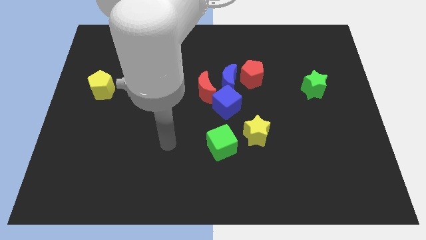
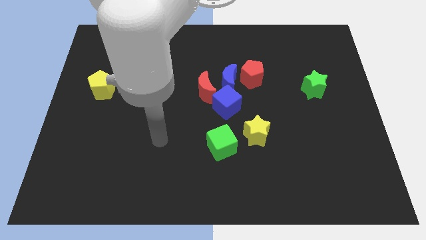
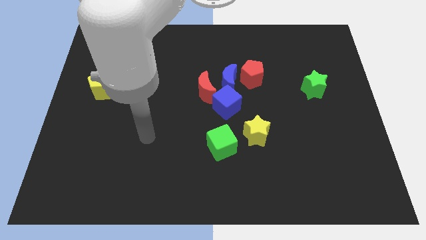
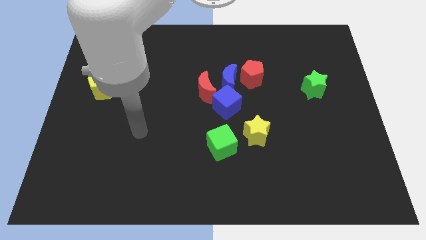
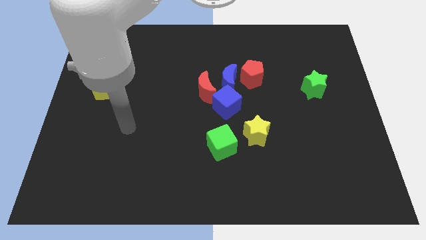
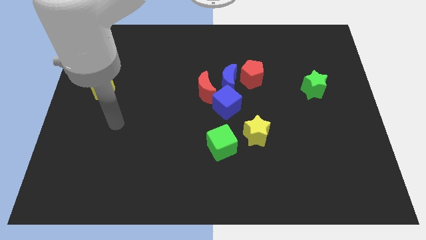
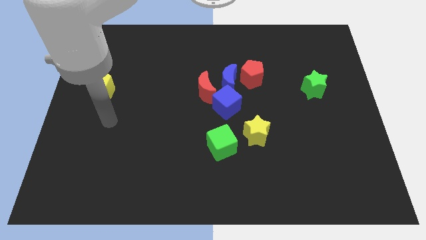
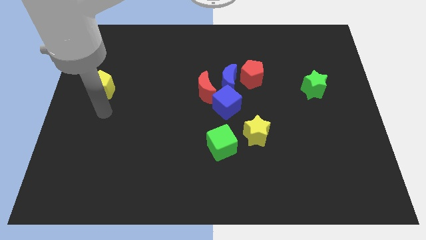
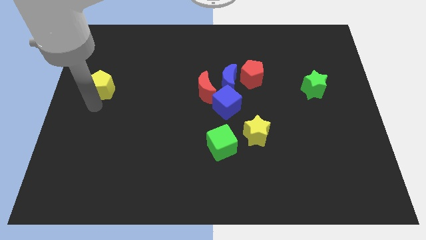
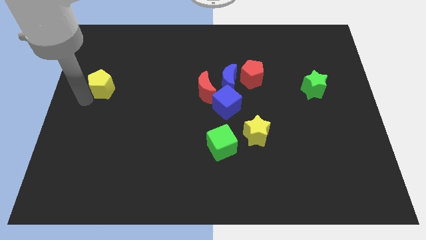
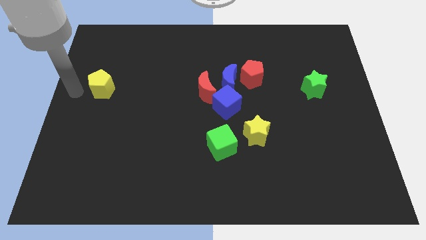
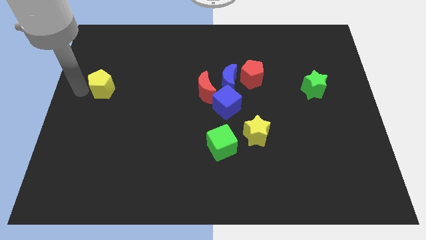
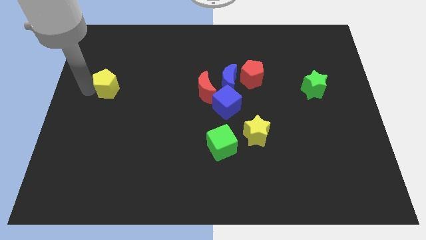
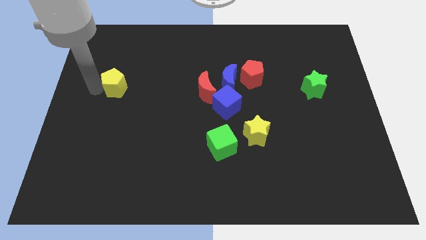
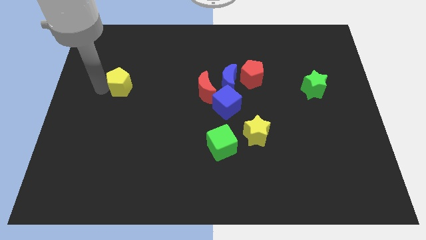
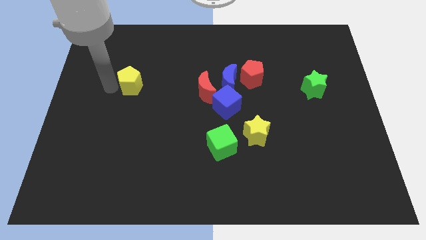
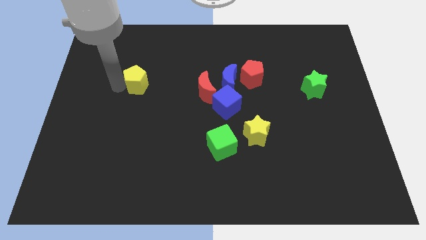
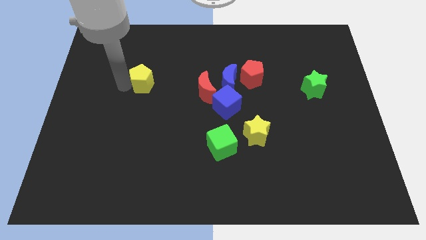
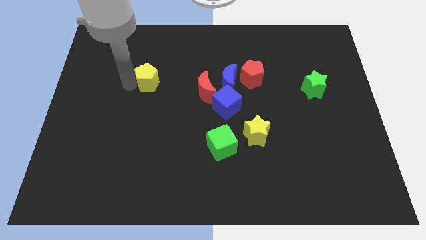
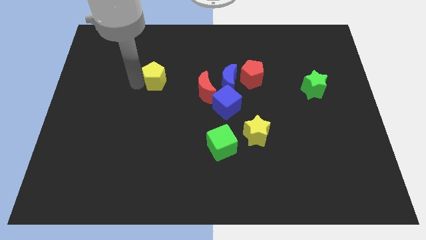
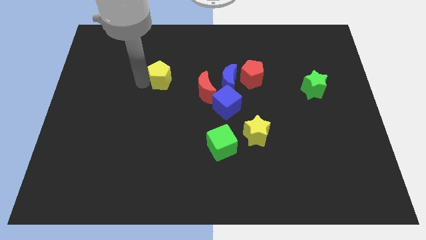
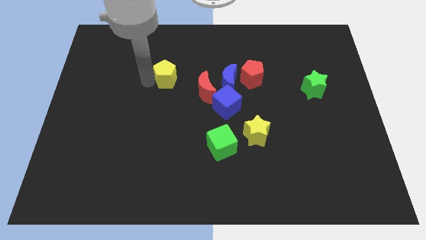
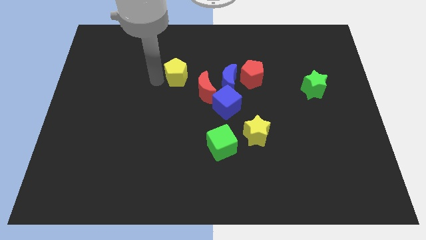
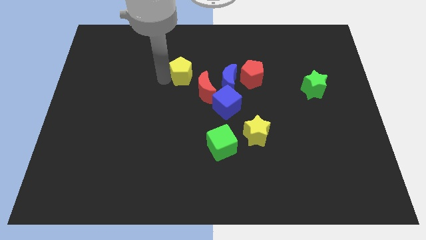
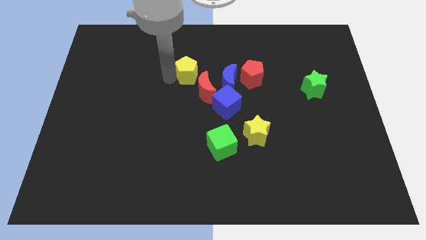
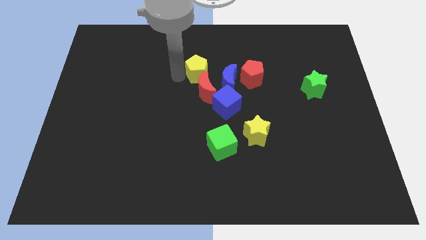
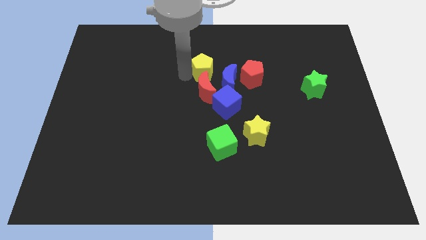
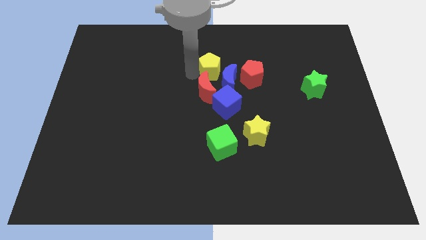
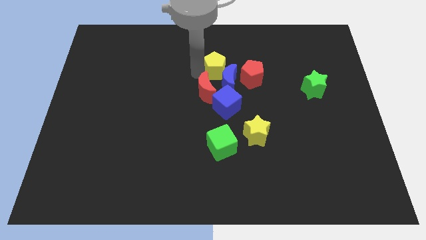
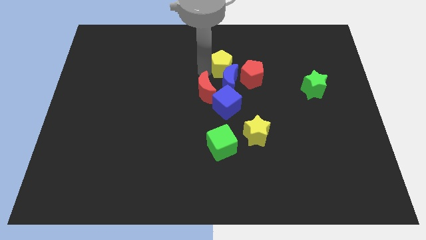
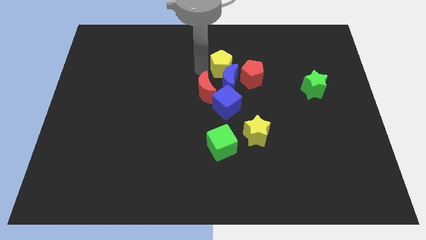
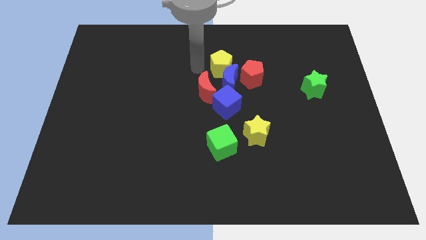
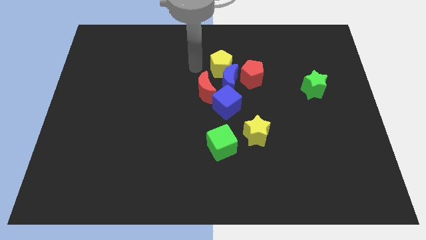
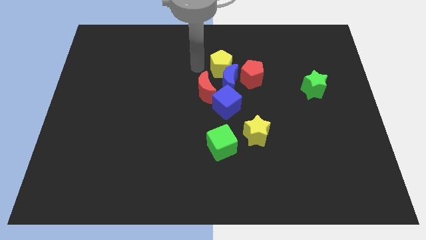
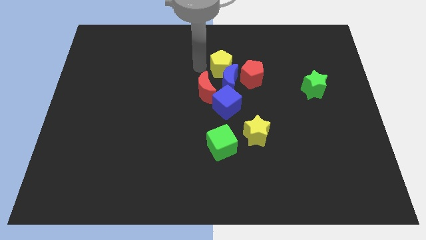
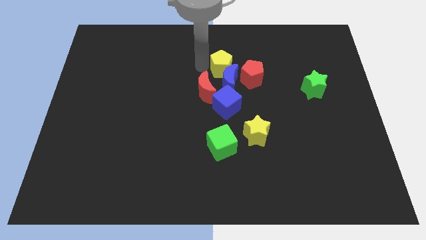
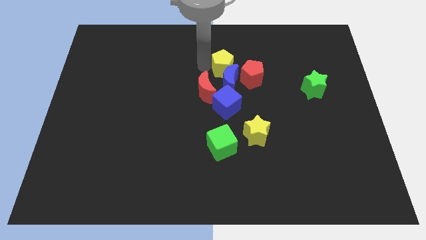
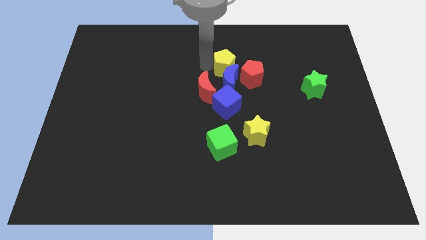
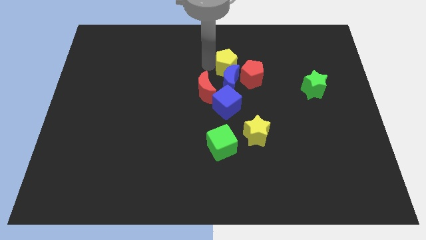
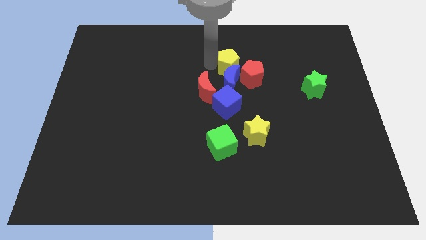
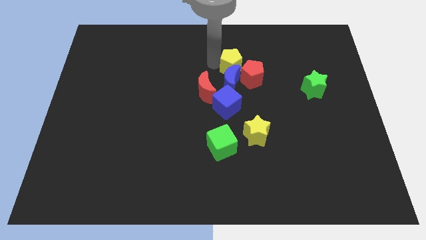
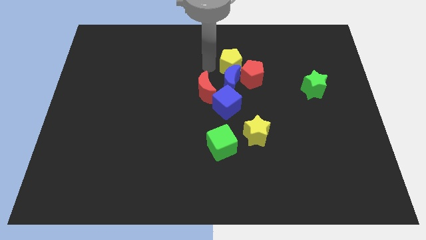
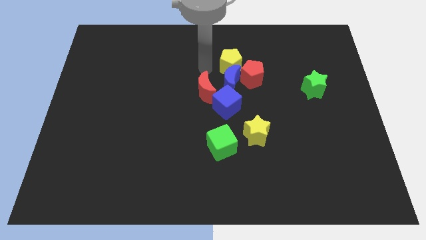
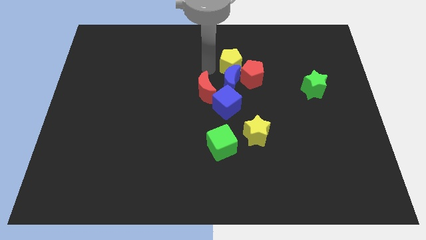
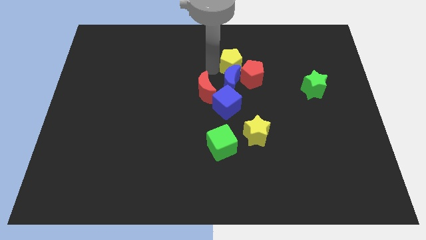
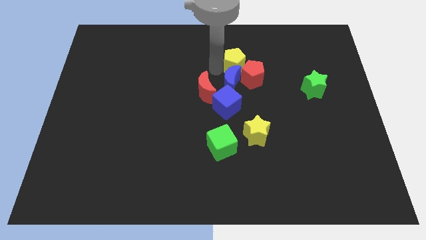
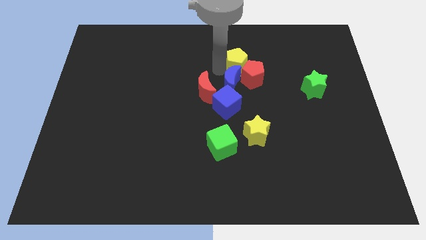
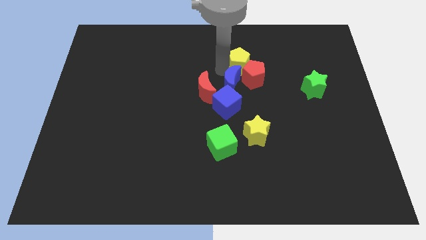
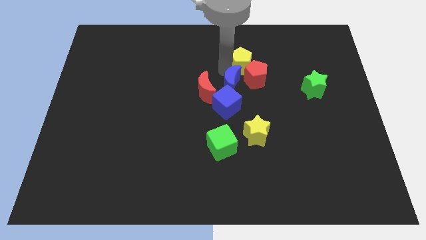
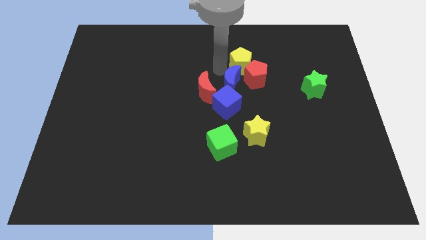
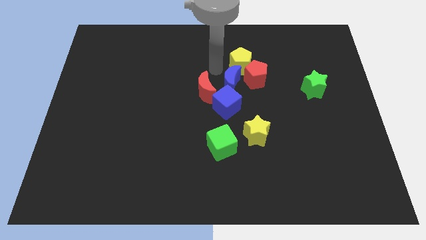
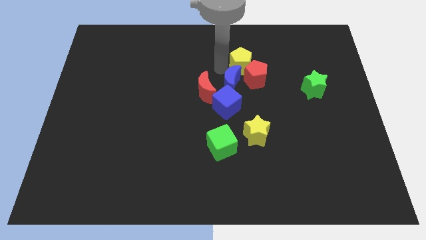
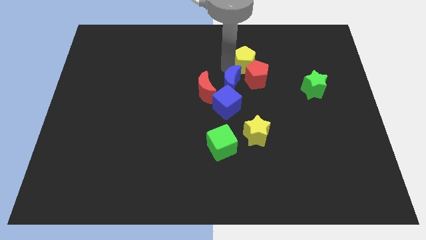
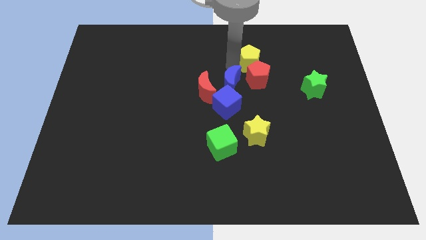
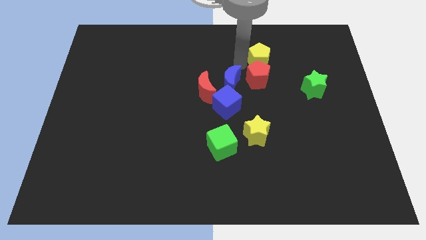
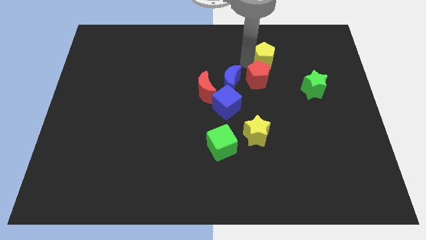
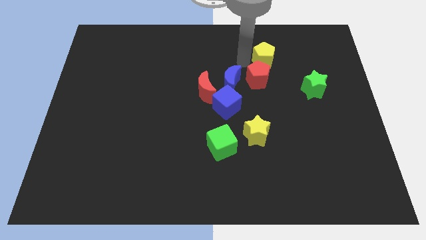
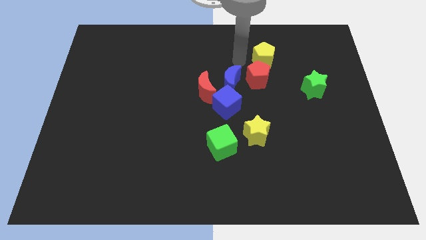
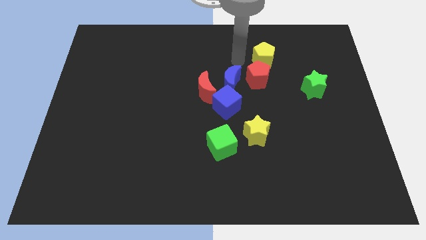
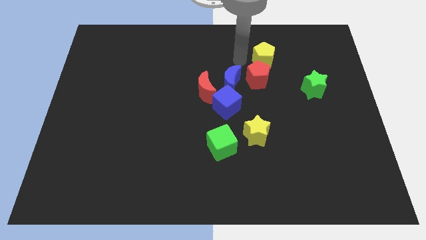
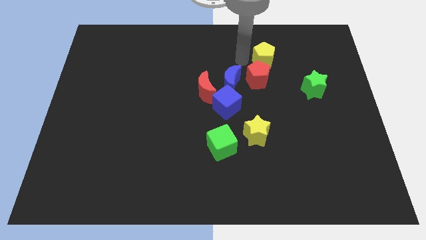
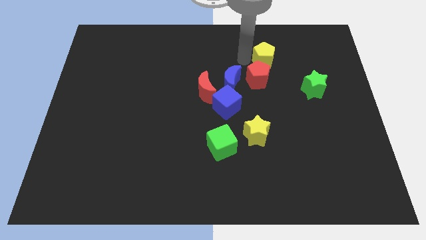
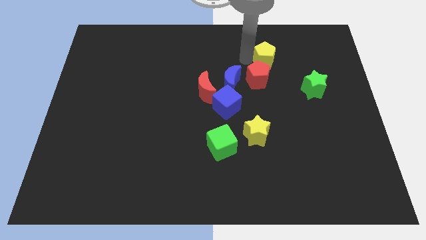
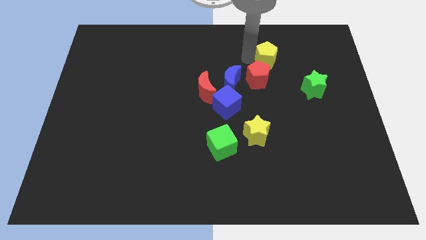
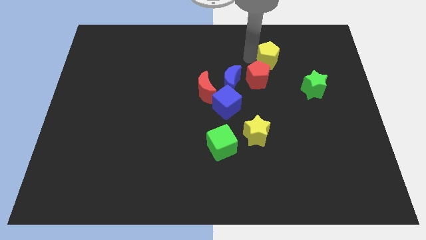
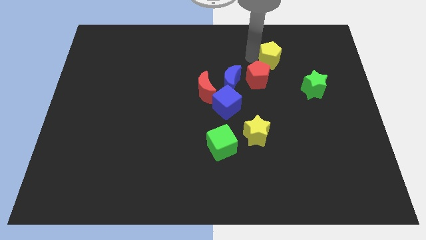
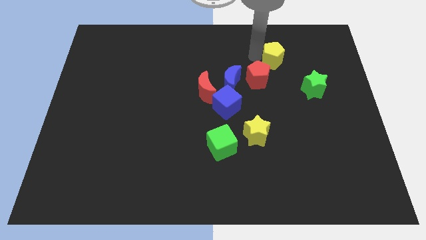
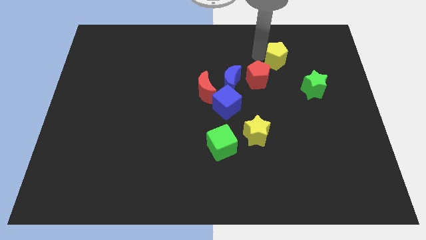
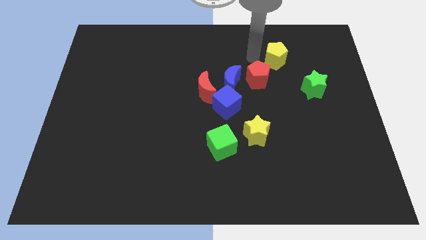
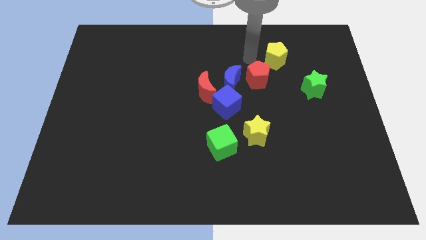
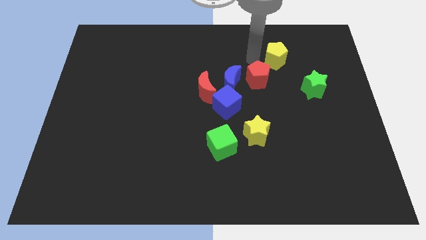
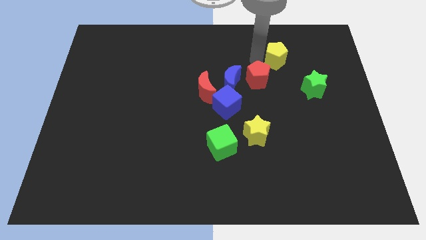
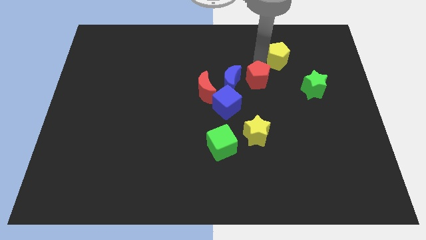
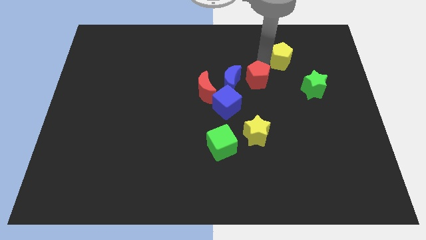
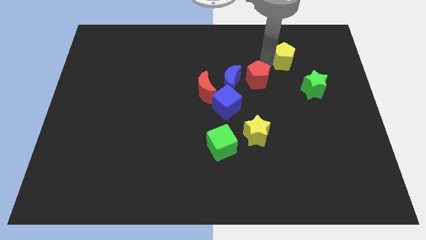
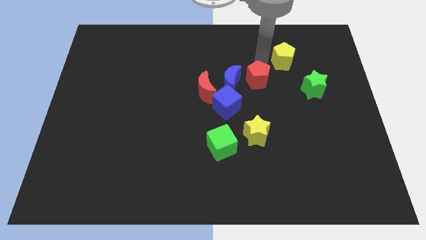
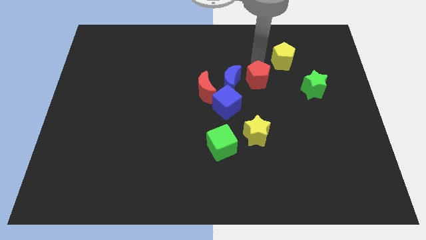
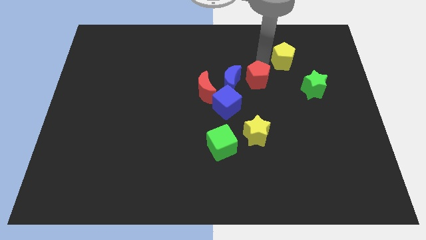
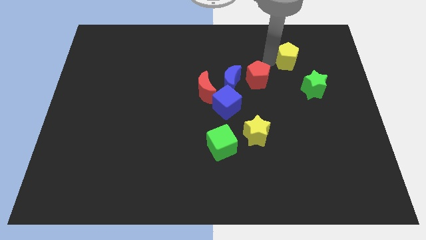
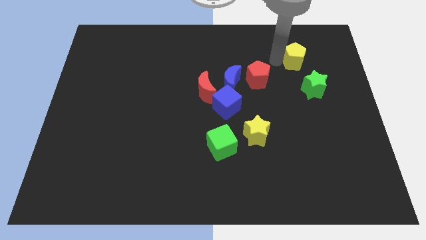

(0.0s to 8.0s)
push the yellow pentagon above the green star
